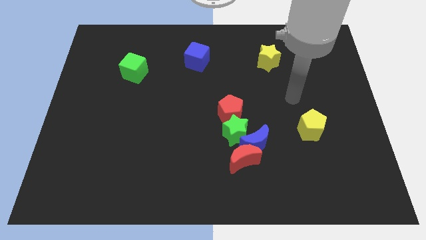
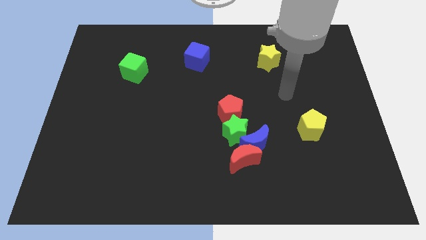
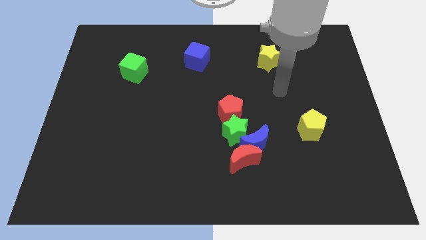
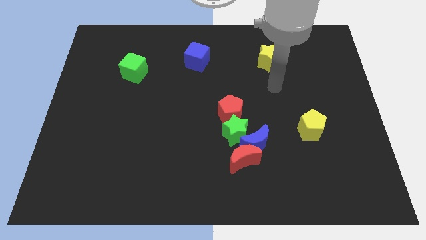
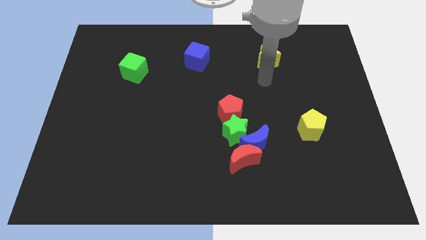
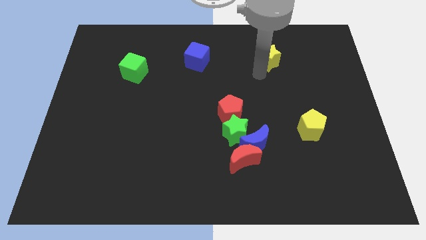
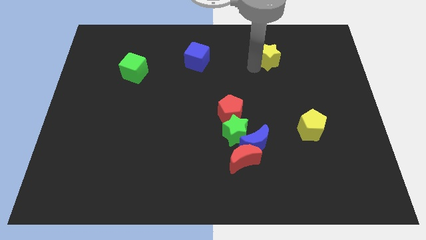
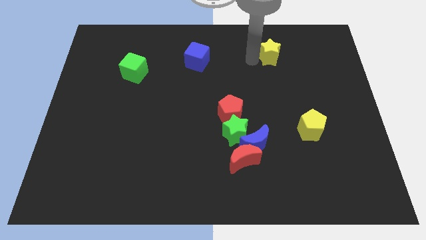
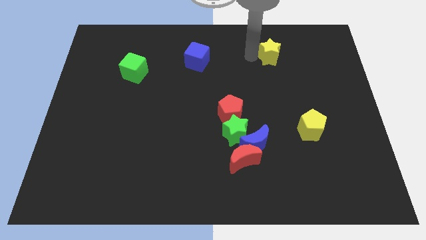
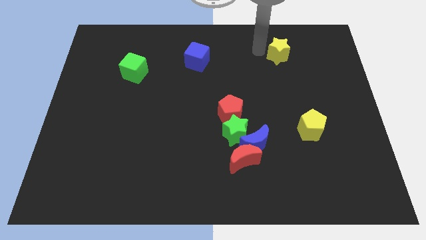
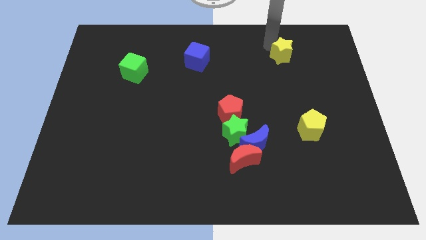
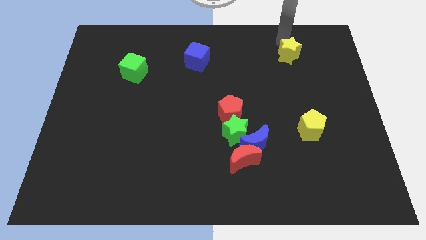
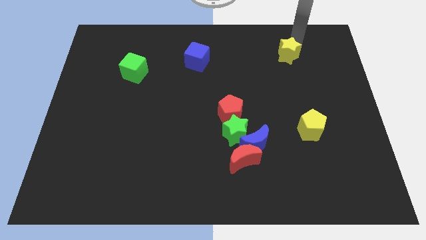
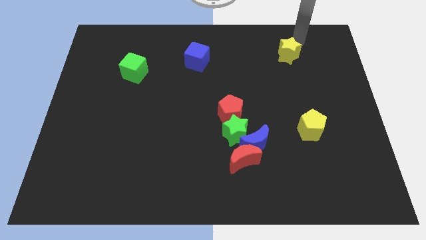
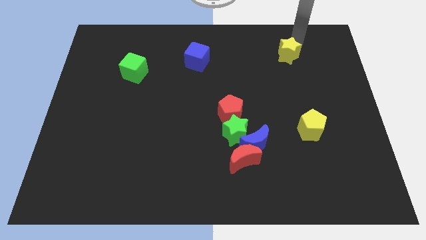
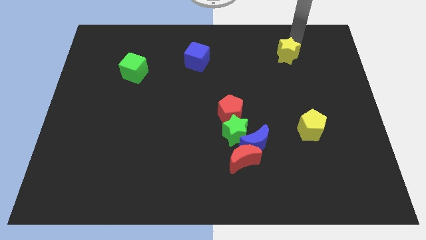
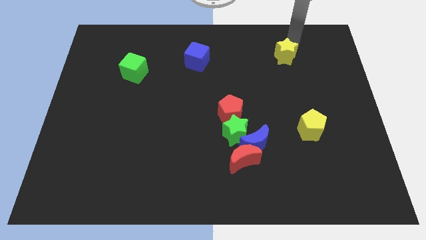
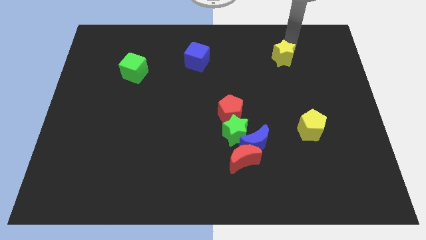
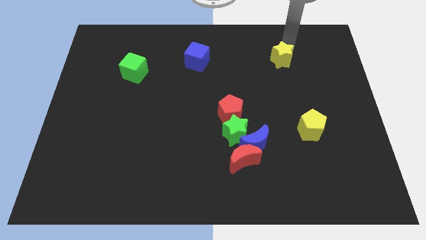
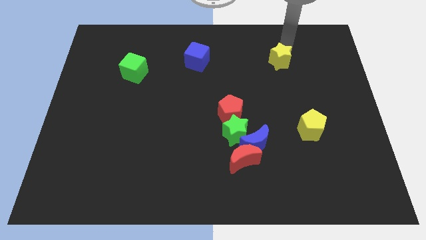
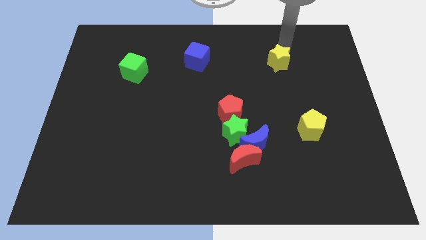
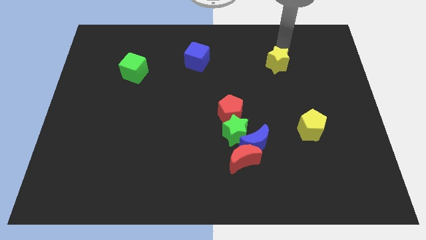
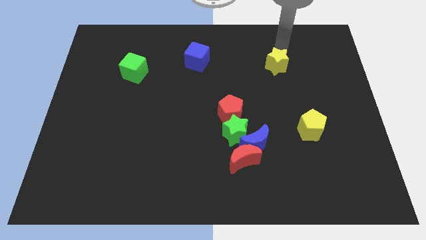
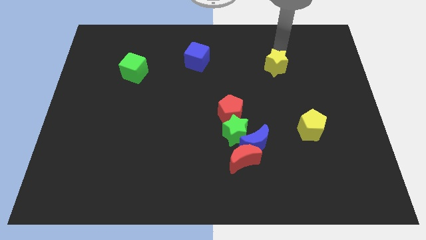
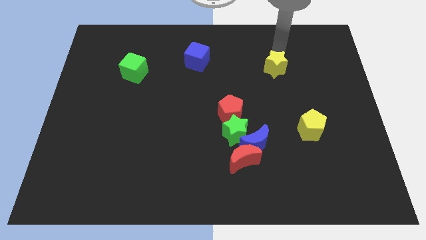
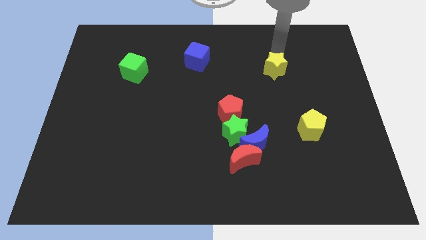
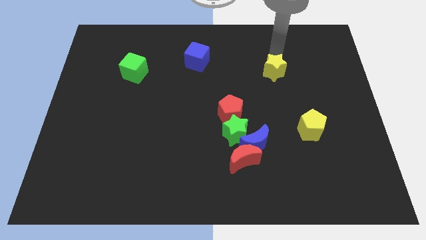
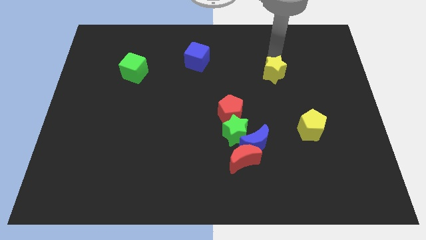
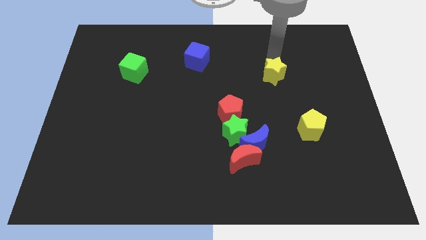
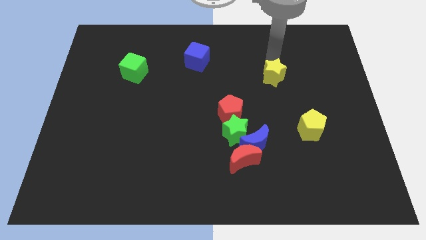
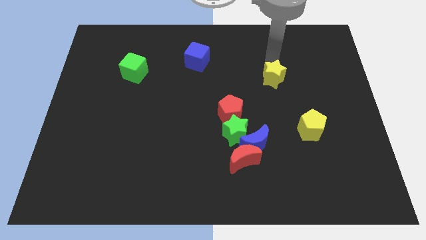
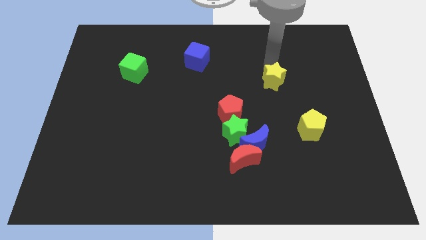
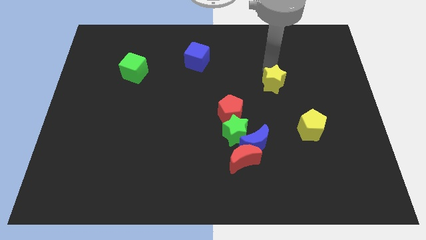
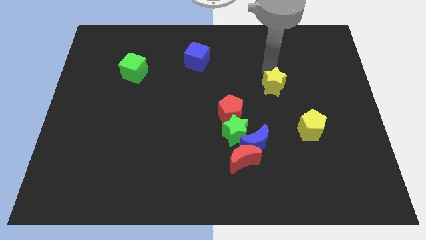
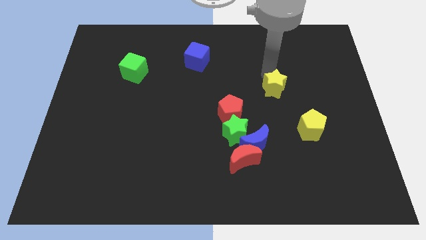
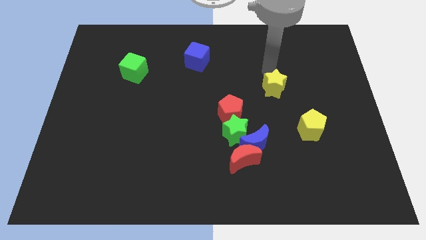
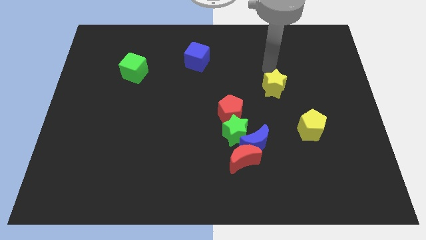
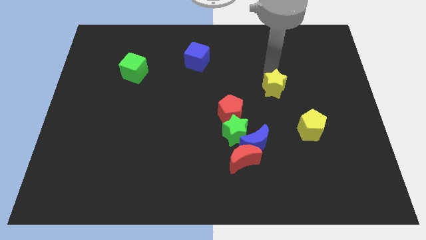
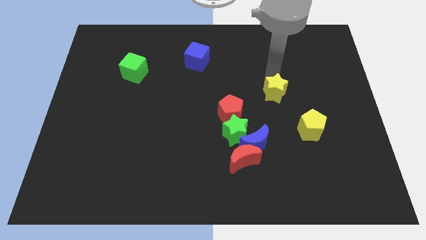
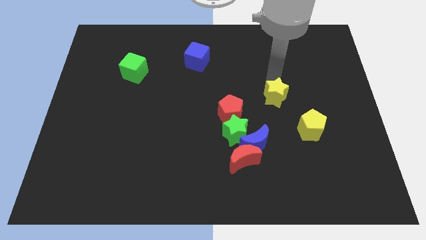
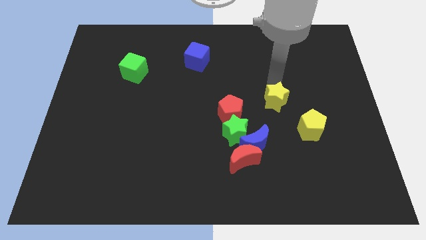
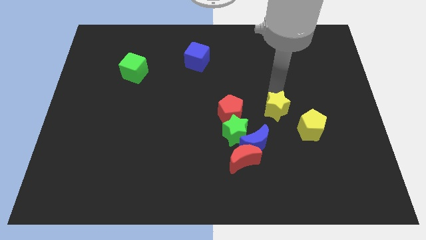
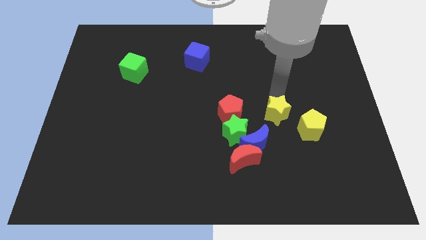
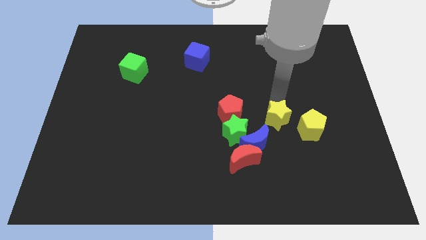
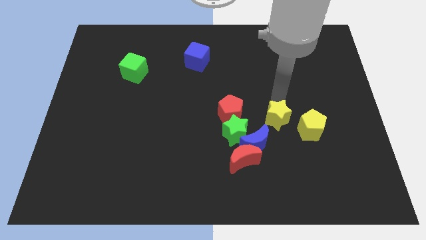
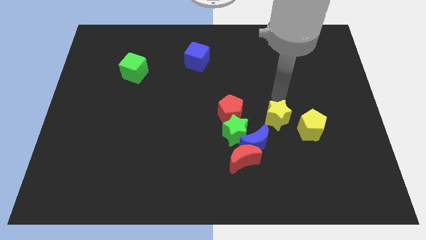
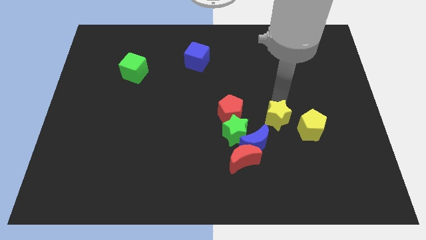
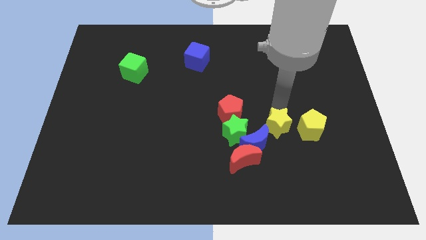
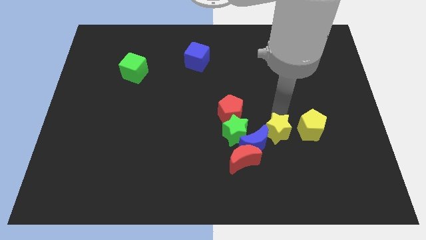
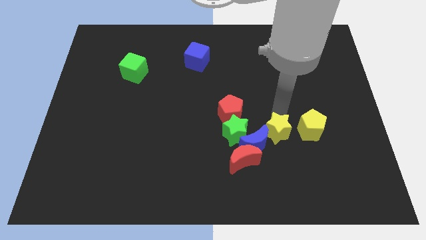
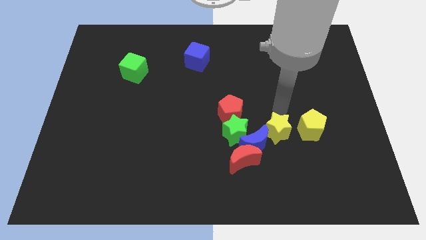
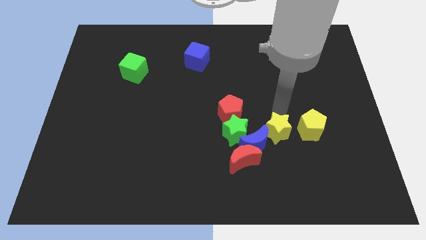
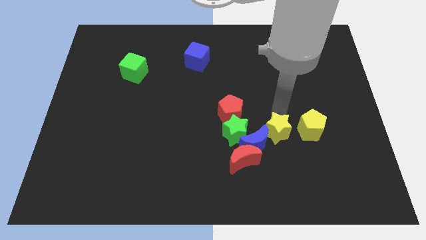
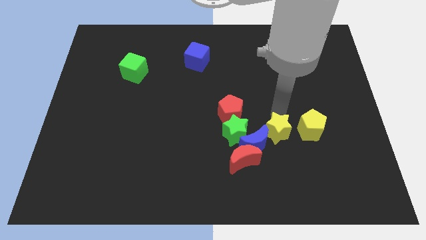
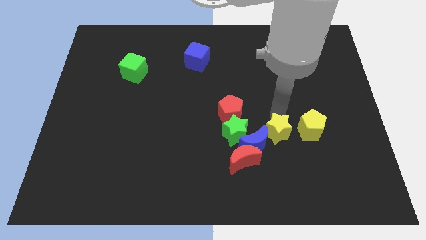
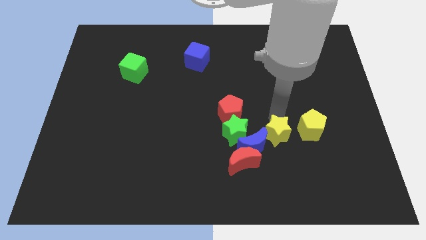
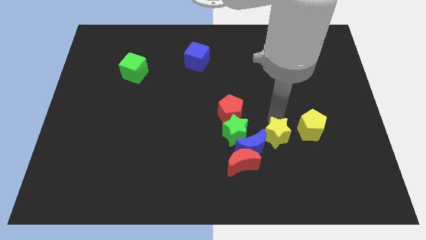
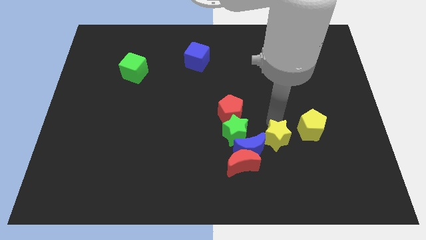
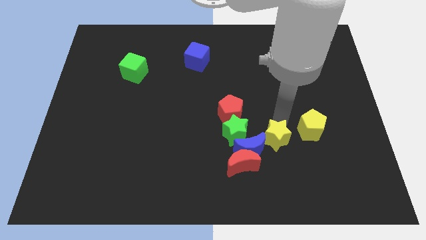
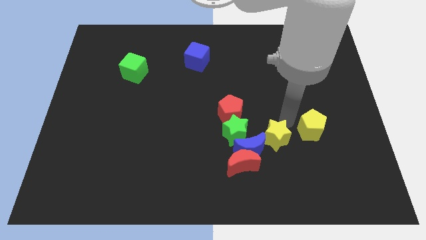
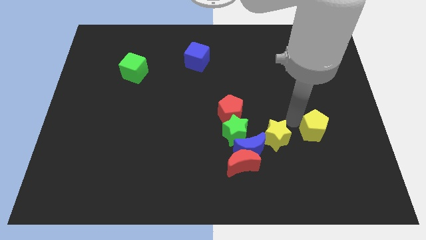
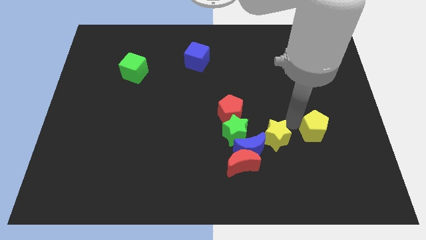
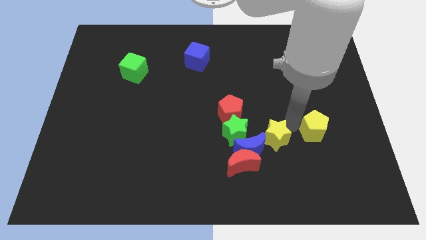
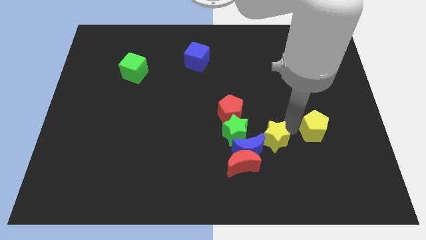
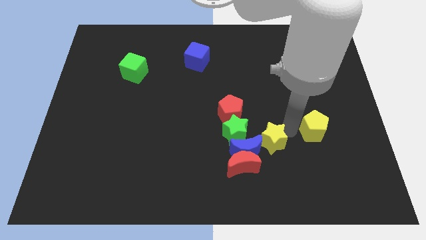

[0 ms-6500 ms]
put the yellow star to the bottom right of the green star
